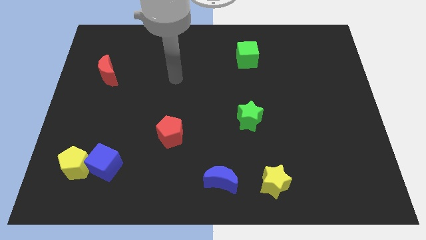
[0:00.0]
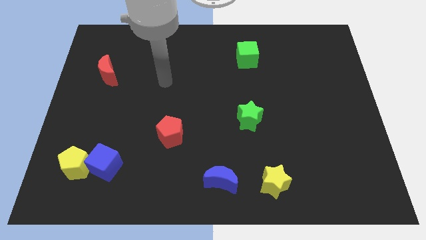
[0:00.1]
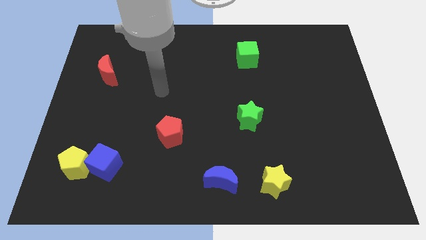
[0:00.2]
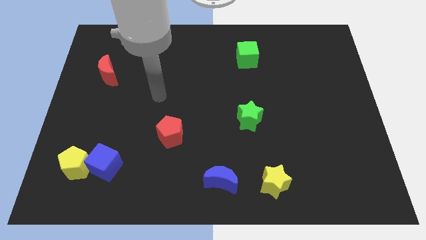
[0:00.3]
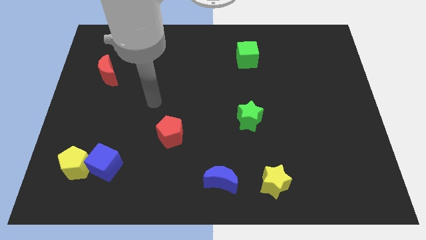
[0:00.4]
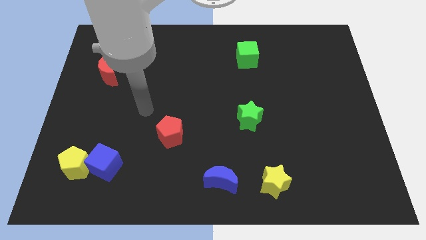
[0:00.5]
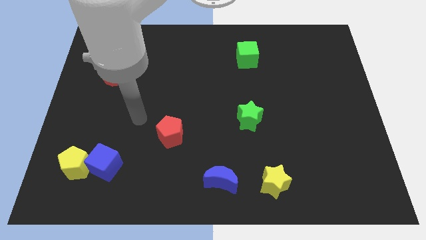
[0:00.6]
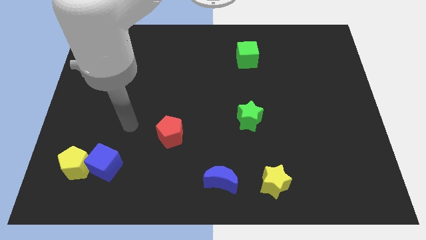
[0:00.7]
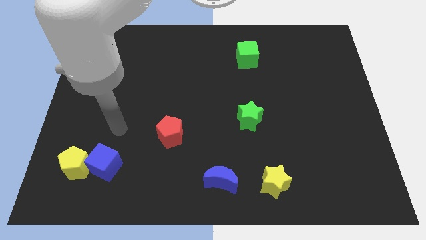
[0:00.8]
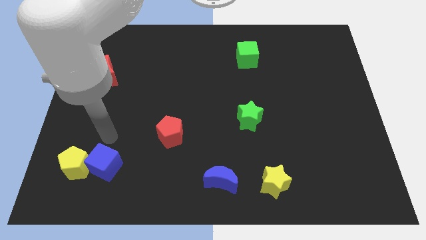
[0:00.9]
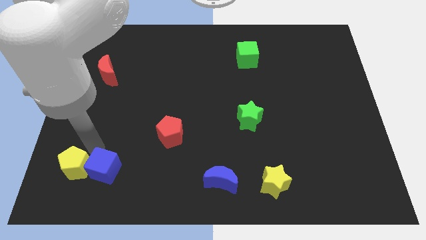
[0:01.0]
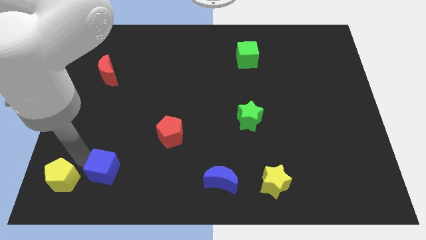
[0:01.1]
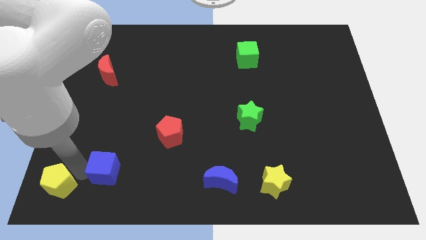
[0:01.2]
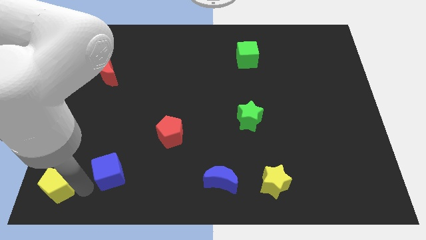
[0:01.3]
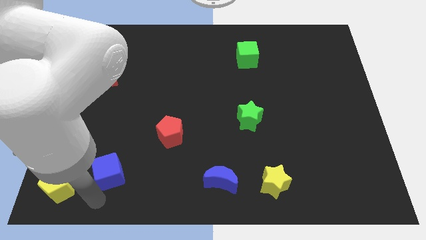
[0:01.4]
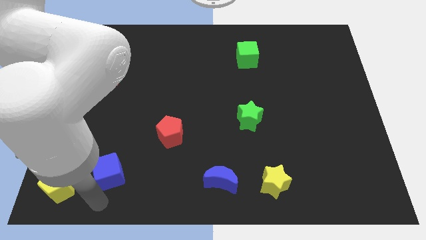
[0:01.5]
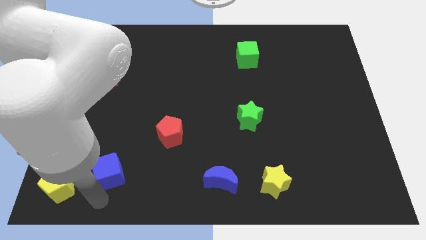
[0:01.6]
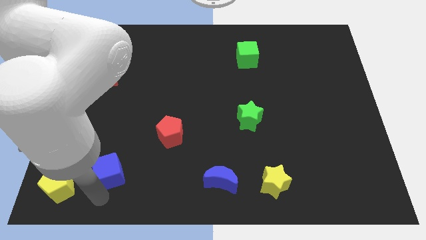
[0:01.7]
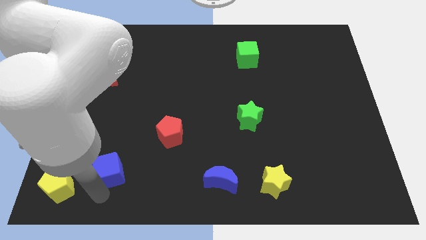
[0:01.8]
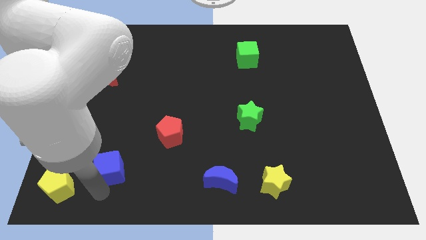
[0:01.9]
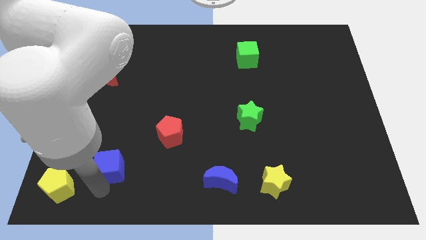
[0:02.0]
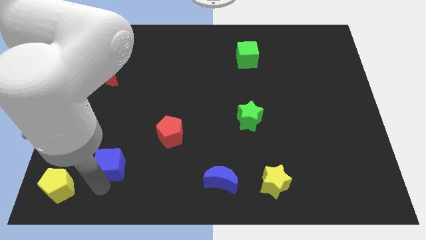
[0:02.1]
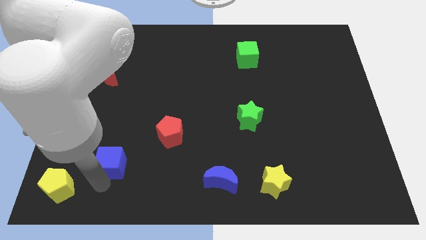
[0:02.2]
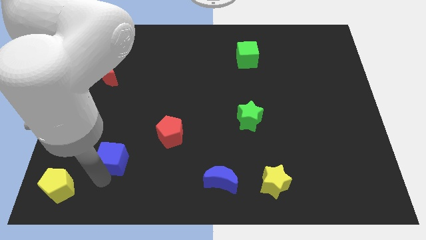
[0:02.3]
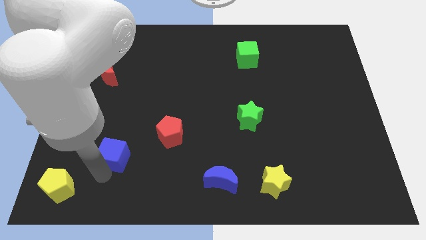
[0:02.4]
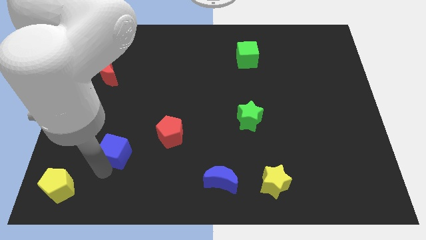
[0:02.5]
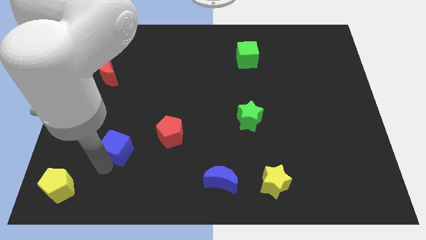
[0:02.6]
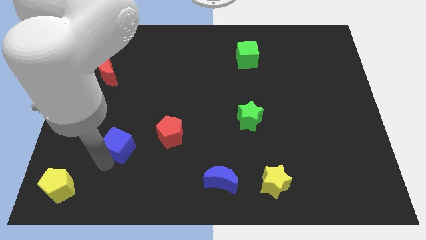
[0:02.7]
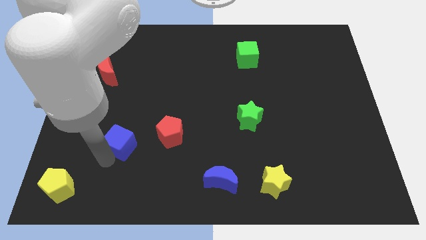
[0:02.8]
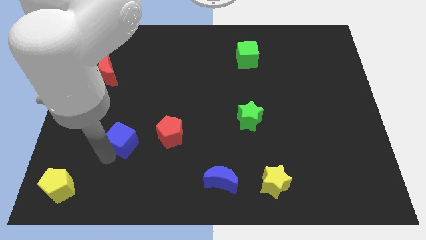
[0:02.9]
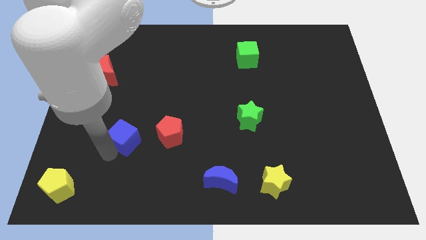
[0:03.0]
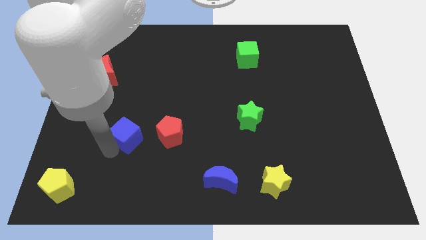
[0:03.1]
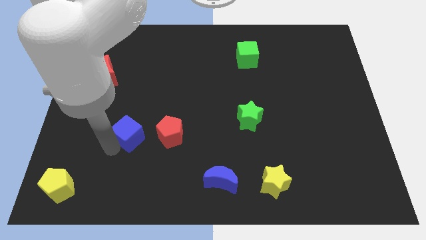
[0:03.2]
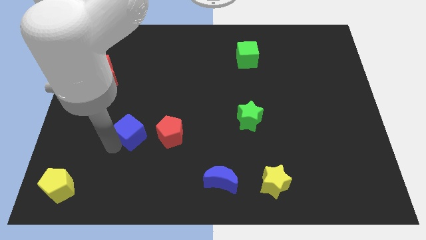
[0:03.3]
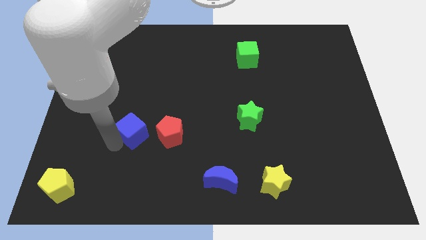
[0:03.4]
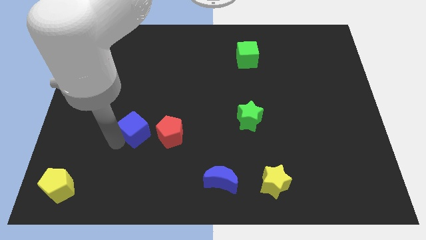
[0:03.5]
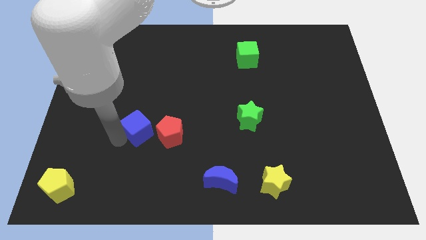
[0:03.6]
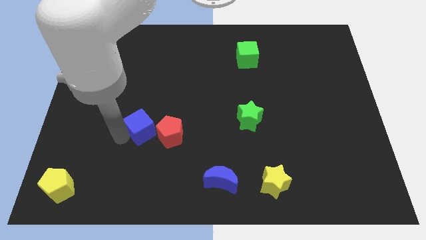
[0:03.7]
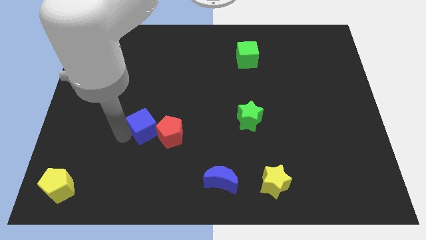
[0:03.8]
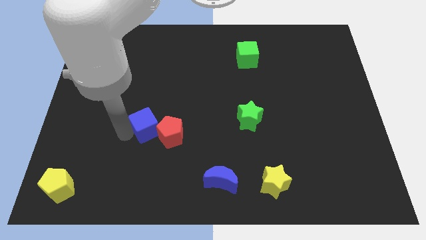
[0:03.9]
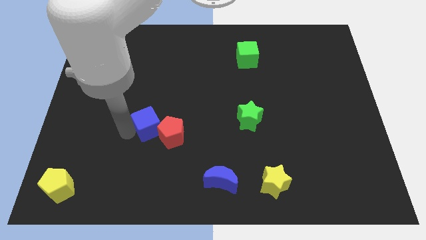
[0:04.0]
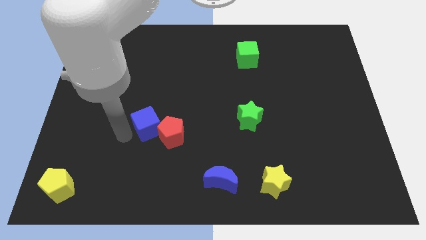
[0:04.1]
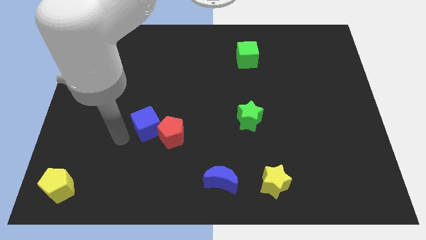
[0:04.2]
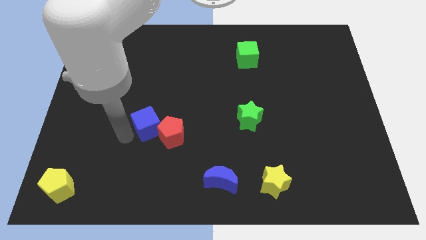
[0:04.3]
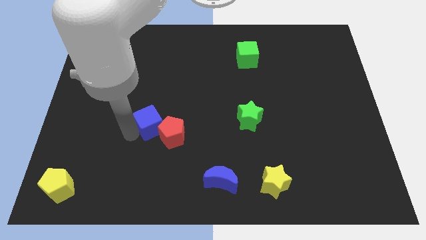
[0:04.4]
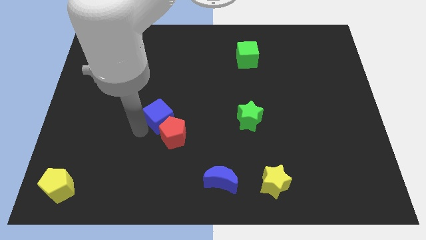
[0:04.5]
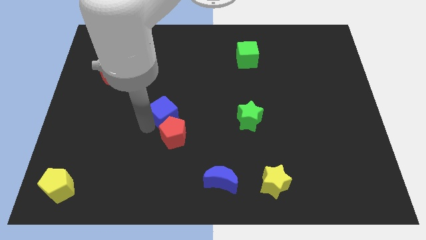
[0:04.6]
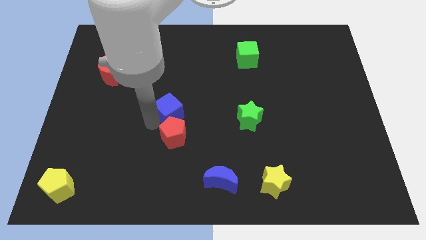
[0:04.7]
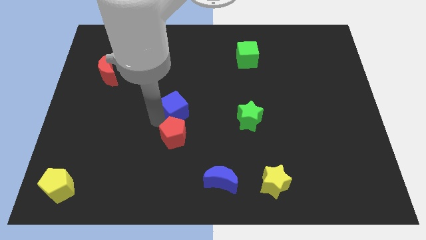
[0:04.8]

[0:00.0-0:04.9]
move the blue cube upwards and then right

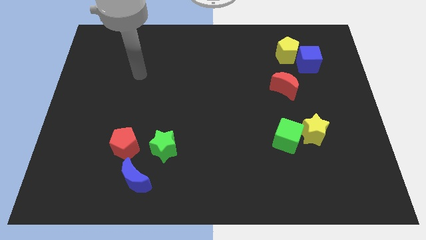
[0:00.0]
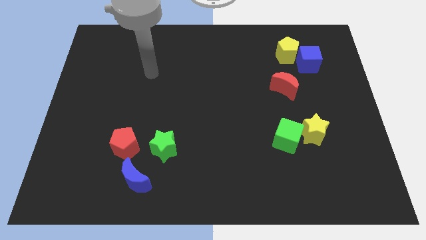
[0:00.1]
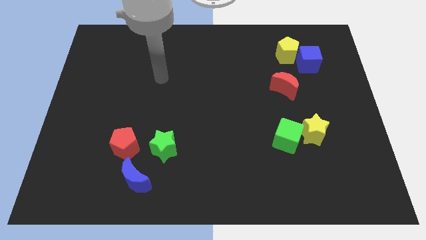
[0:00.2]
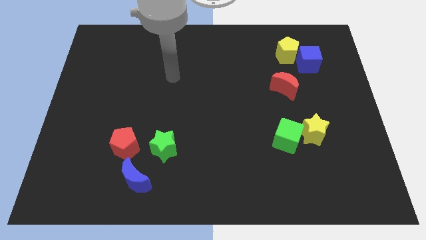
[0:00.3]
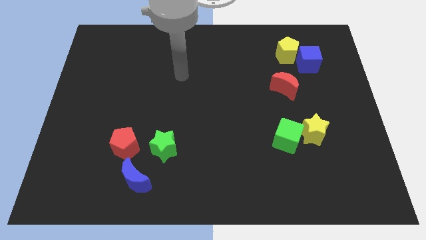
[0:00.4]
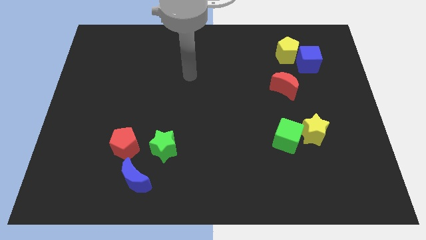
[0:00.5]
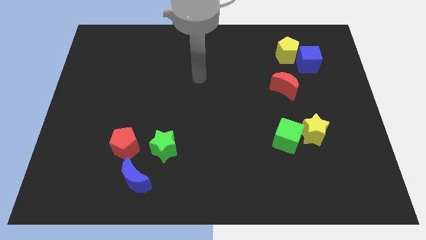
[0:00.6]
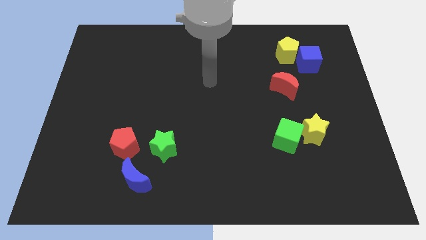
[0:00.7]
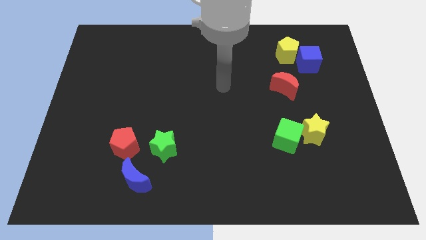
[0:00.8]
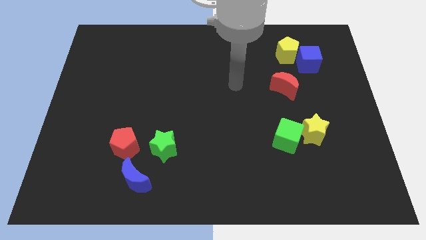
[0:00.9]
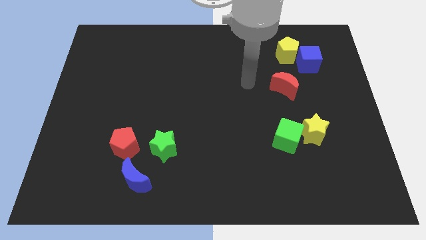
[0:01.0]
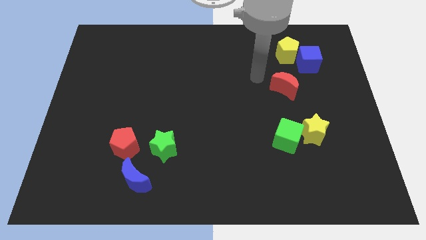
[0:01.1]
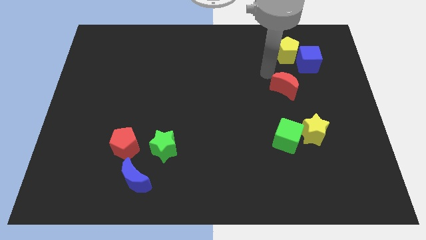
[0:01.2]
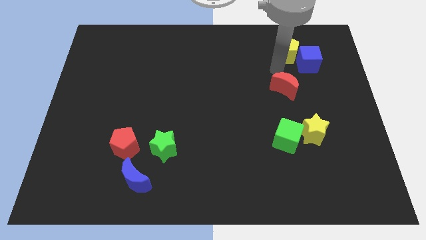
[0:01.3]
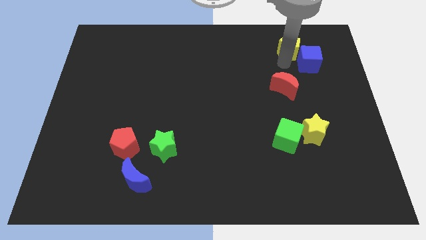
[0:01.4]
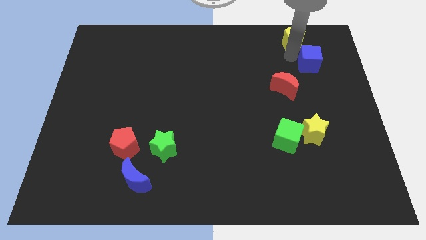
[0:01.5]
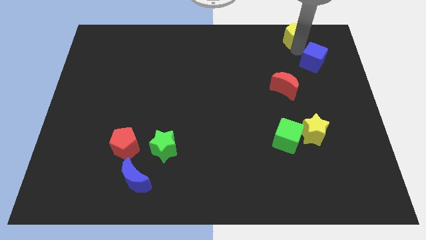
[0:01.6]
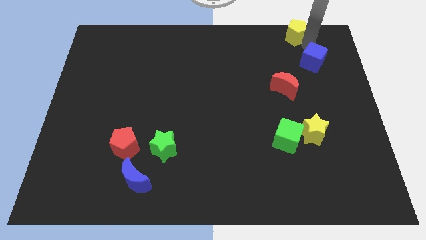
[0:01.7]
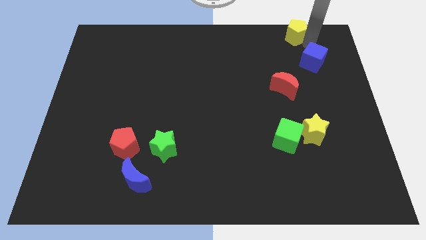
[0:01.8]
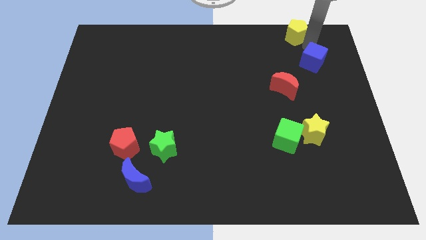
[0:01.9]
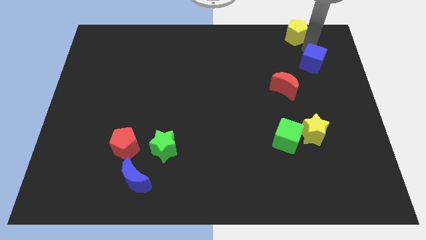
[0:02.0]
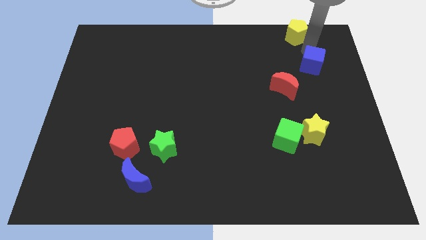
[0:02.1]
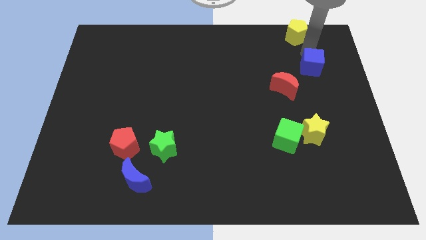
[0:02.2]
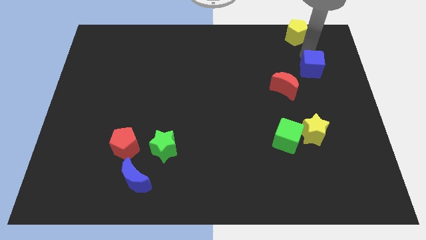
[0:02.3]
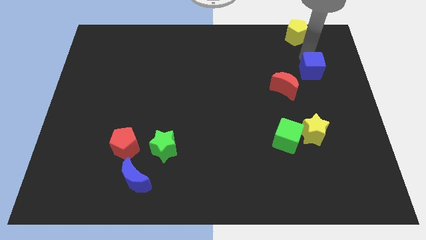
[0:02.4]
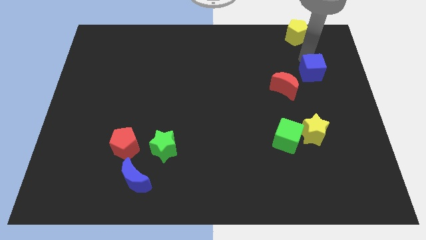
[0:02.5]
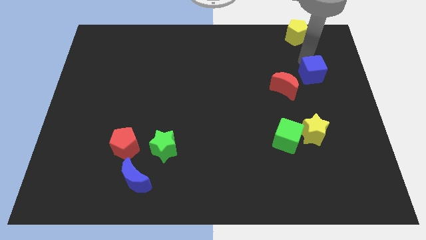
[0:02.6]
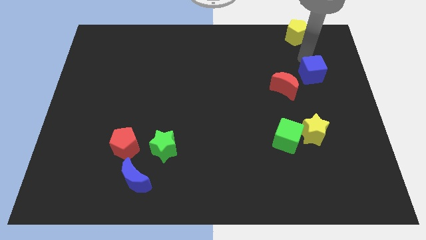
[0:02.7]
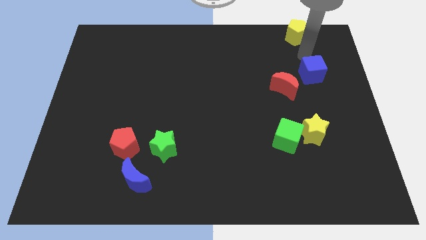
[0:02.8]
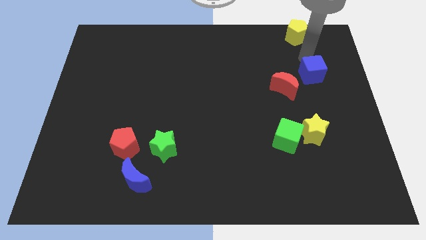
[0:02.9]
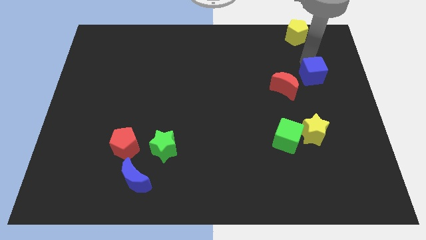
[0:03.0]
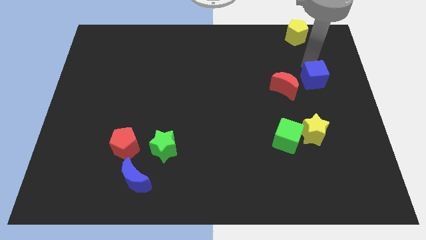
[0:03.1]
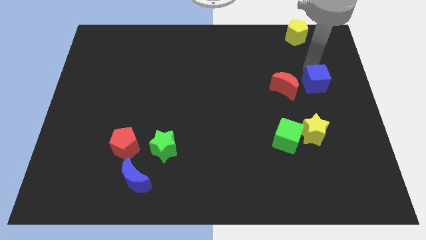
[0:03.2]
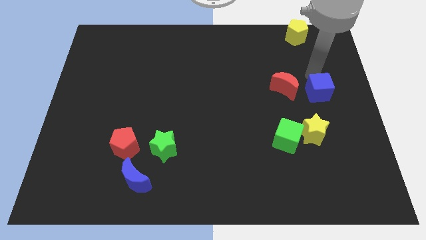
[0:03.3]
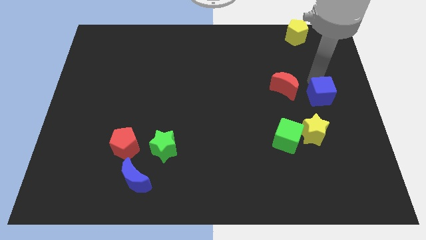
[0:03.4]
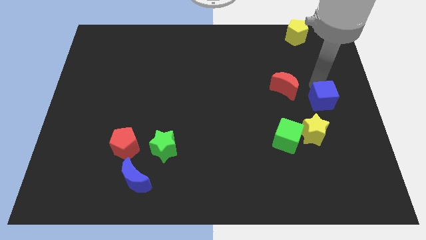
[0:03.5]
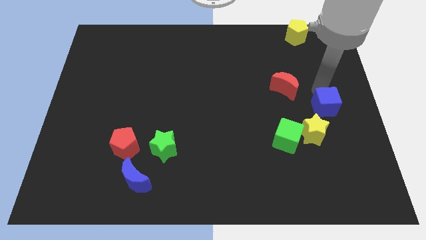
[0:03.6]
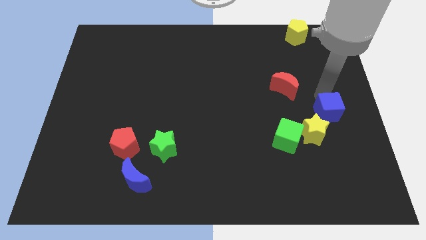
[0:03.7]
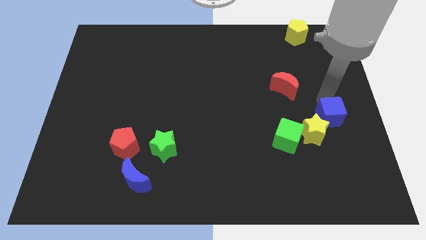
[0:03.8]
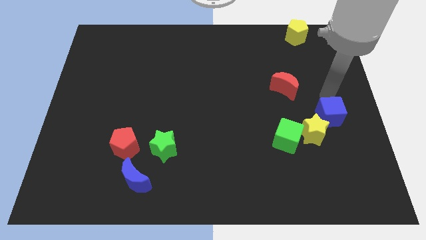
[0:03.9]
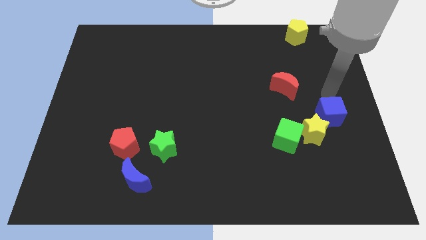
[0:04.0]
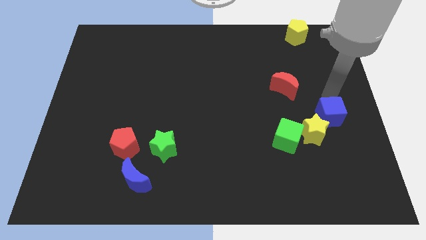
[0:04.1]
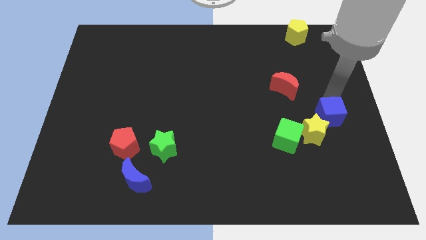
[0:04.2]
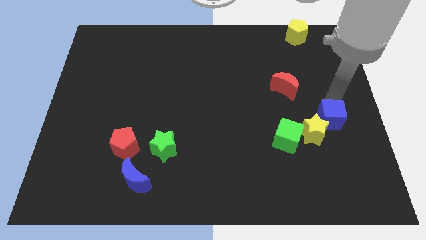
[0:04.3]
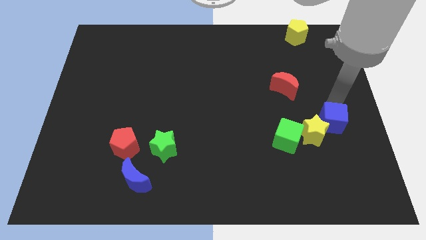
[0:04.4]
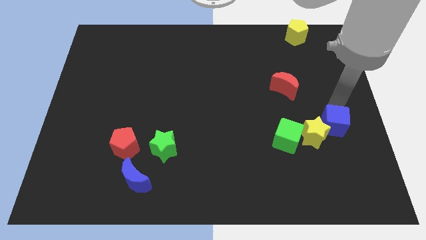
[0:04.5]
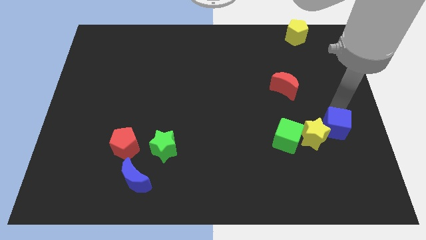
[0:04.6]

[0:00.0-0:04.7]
slide the blue cube downwards
